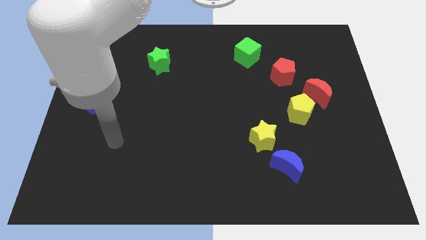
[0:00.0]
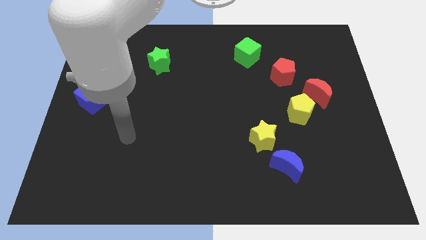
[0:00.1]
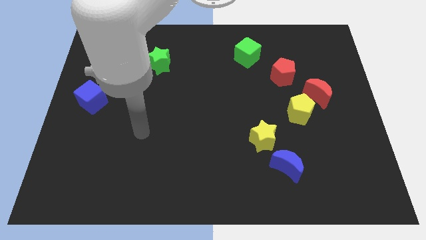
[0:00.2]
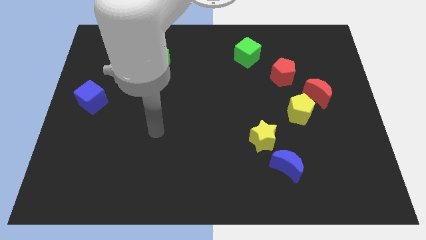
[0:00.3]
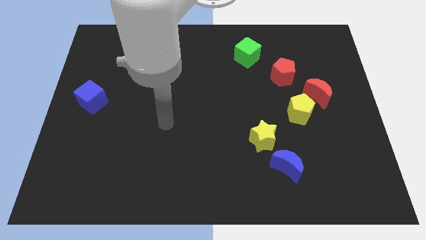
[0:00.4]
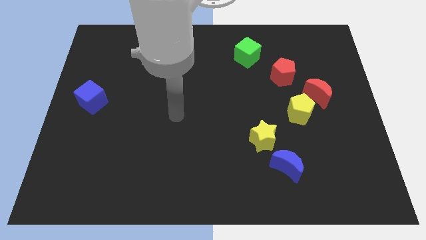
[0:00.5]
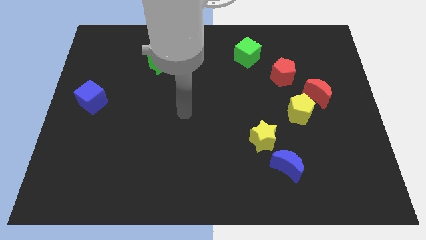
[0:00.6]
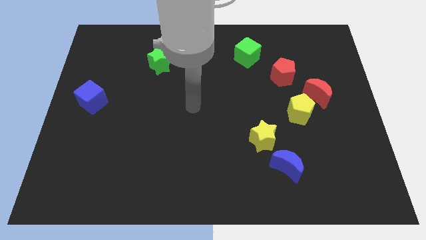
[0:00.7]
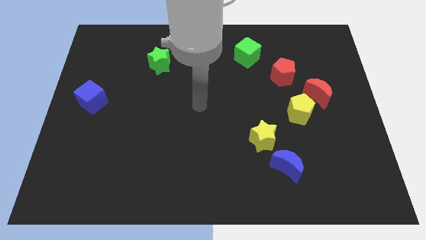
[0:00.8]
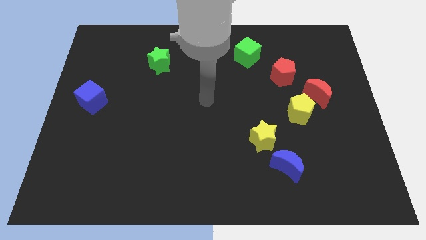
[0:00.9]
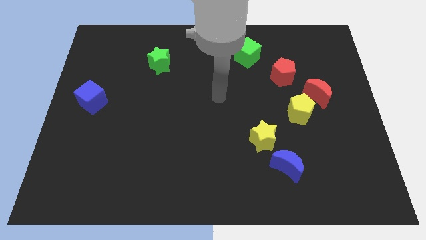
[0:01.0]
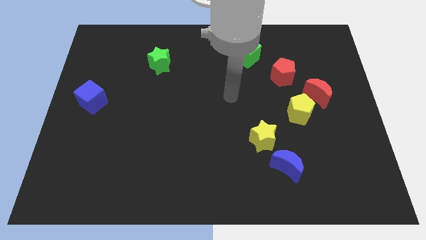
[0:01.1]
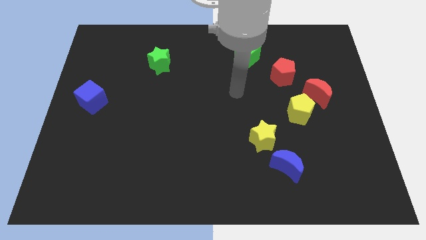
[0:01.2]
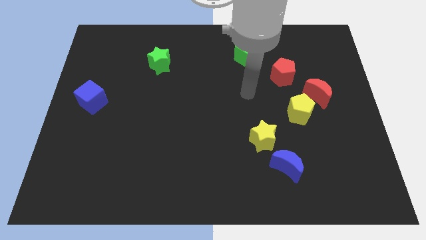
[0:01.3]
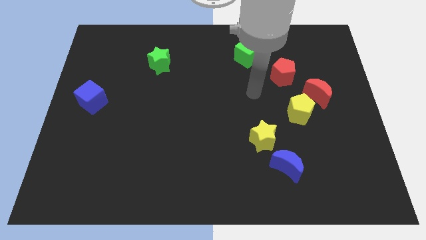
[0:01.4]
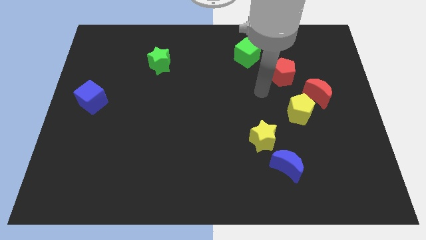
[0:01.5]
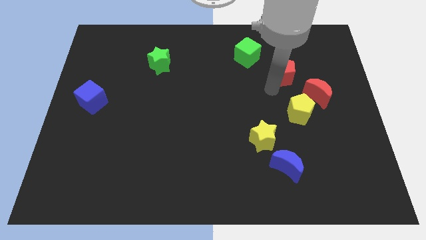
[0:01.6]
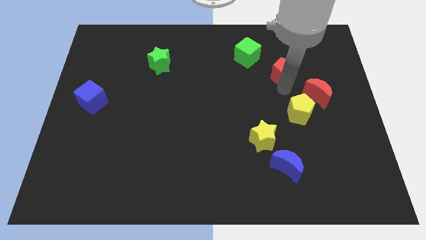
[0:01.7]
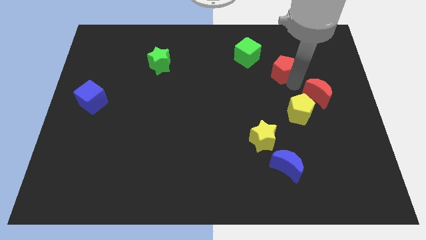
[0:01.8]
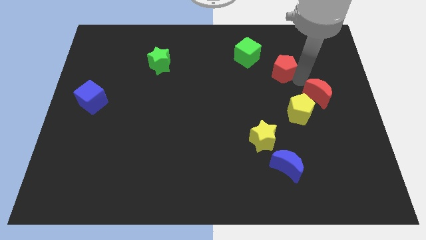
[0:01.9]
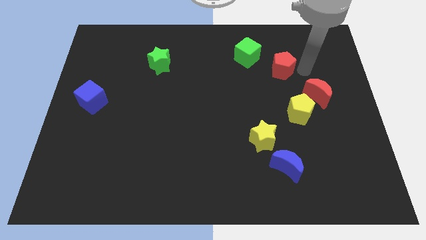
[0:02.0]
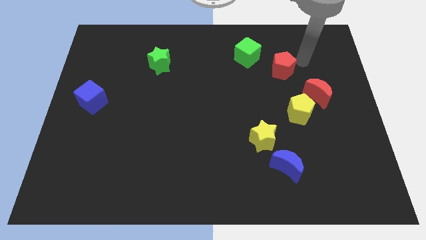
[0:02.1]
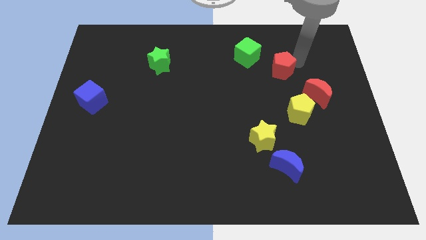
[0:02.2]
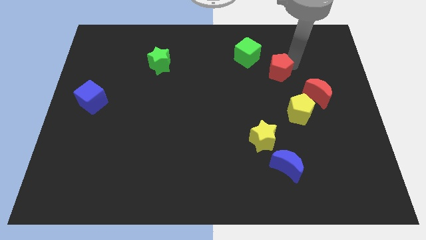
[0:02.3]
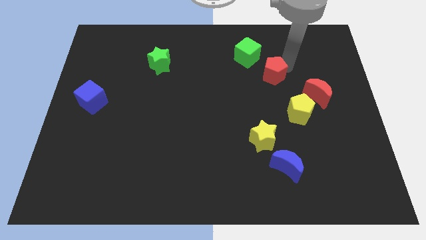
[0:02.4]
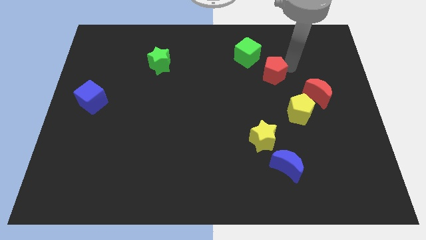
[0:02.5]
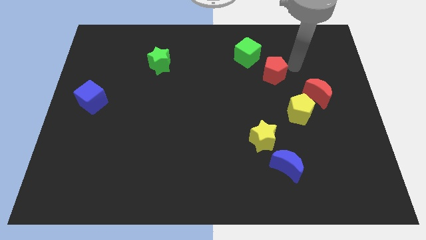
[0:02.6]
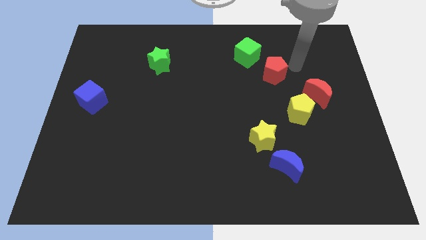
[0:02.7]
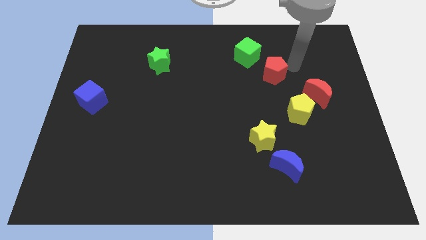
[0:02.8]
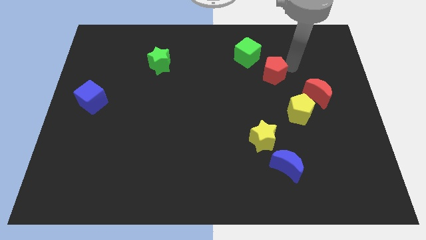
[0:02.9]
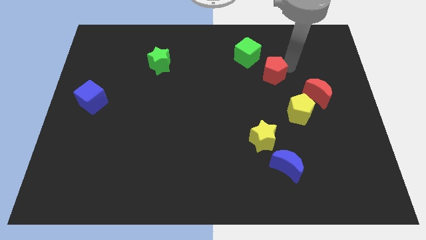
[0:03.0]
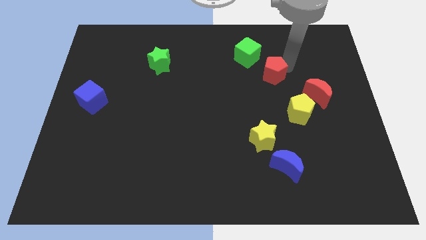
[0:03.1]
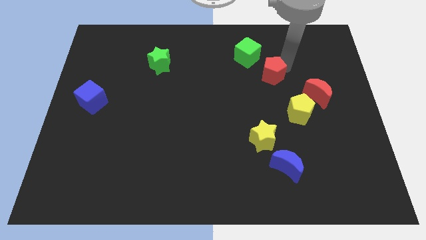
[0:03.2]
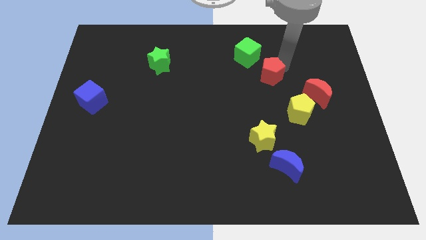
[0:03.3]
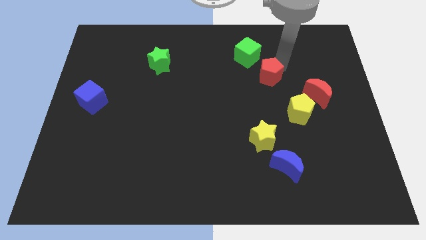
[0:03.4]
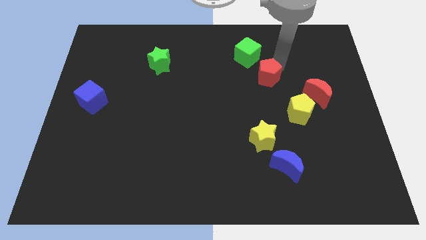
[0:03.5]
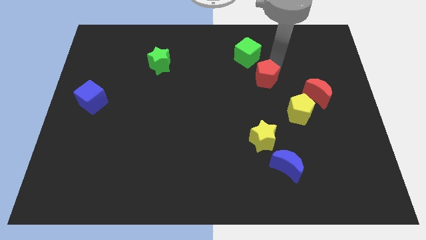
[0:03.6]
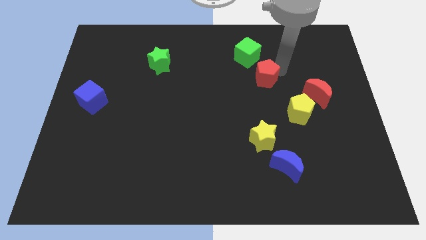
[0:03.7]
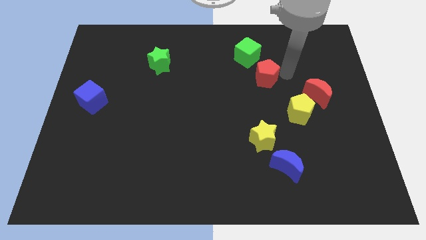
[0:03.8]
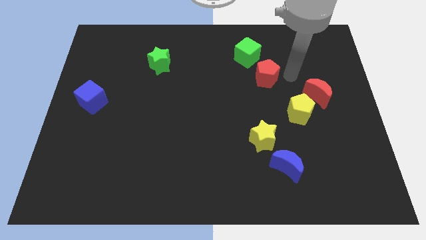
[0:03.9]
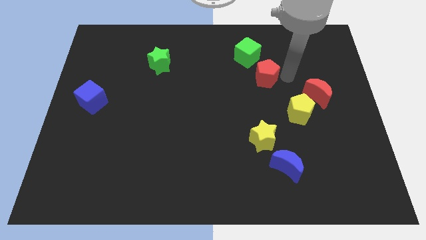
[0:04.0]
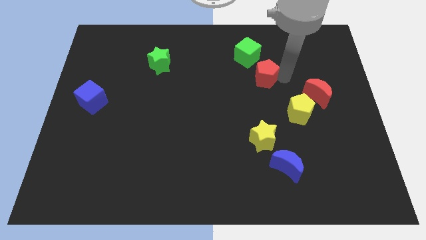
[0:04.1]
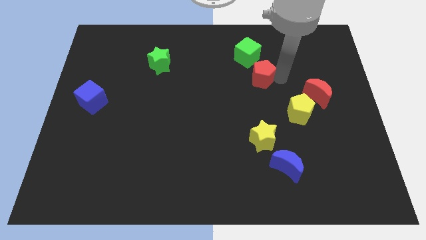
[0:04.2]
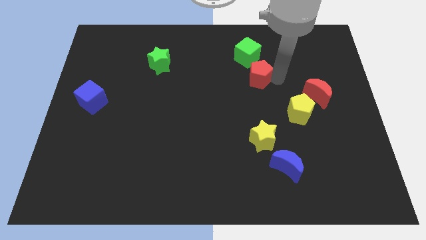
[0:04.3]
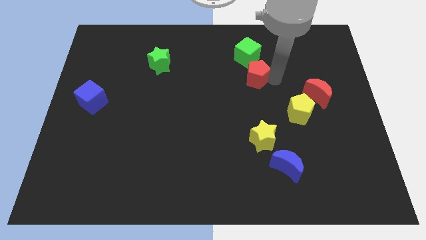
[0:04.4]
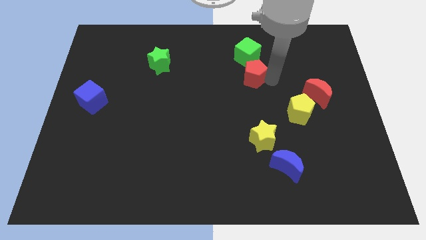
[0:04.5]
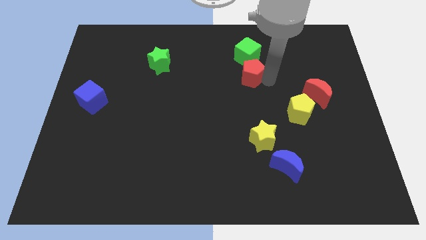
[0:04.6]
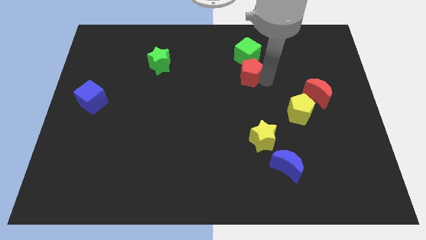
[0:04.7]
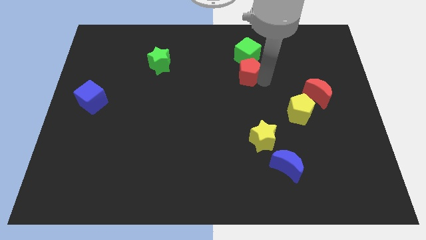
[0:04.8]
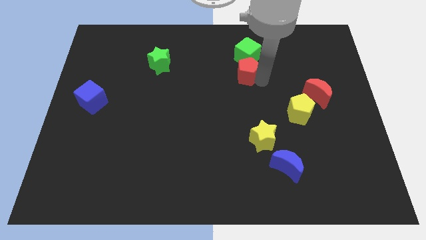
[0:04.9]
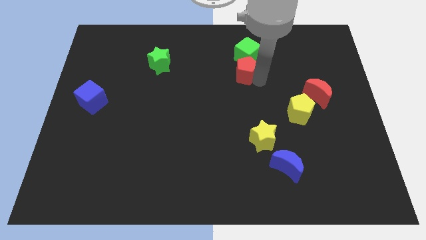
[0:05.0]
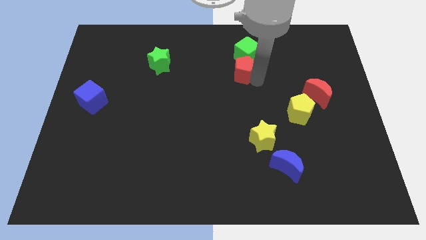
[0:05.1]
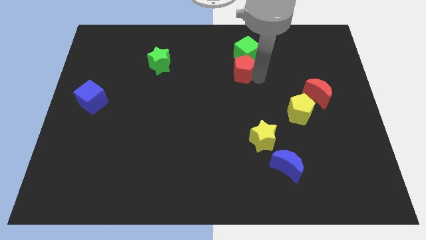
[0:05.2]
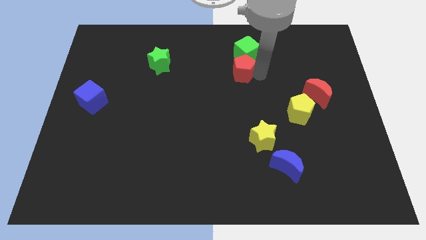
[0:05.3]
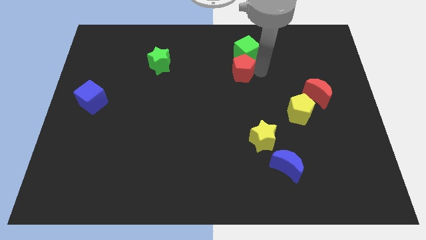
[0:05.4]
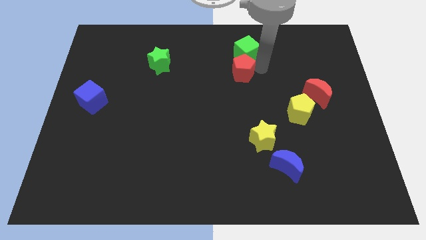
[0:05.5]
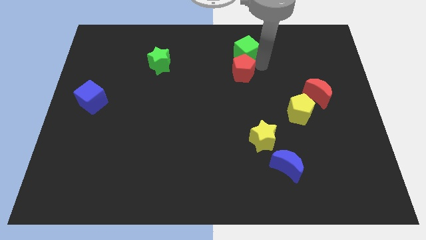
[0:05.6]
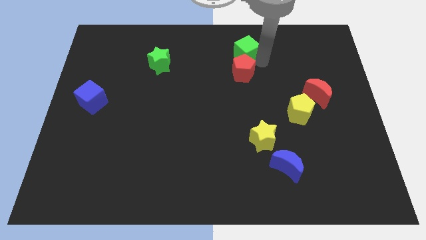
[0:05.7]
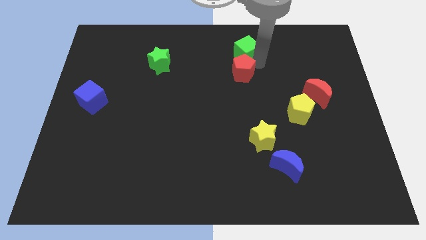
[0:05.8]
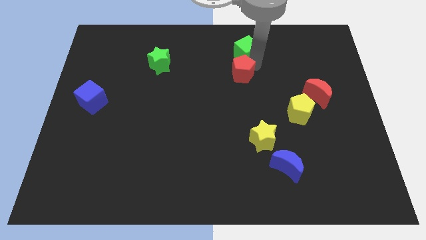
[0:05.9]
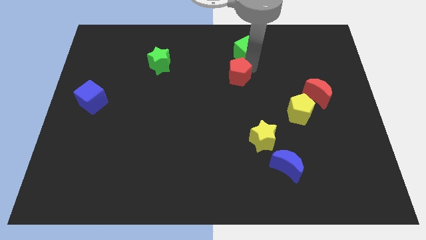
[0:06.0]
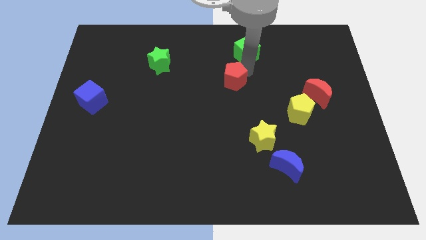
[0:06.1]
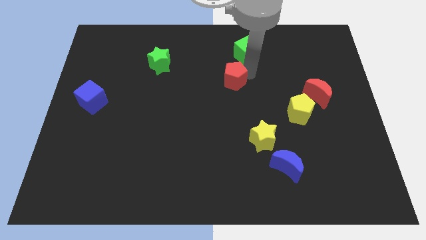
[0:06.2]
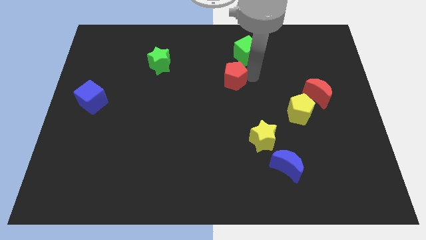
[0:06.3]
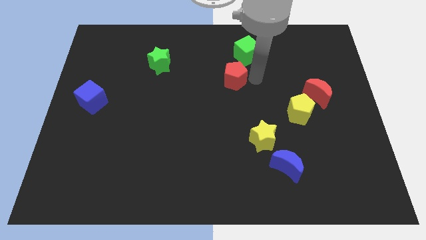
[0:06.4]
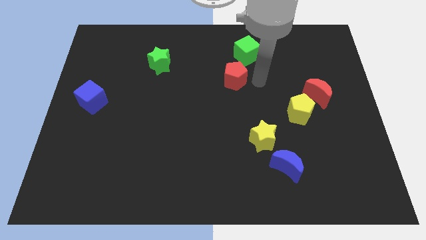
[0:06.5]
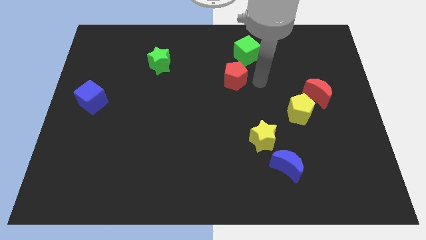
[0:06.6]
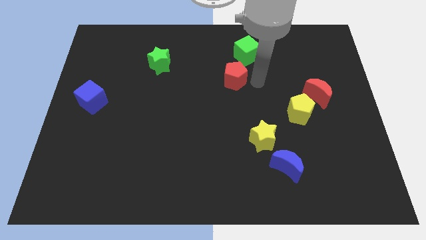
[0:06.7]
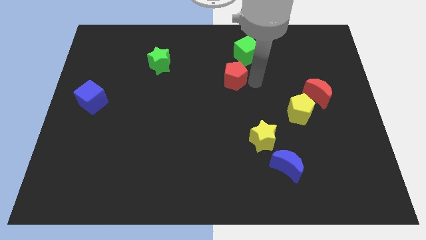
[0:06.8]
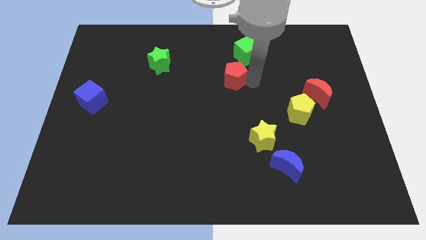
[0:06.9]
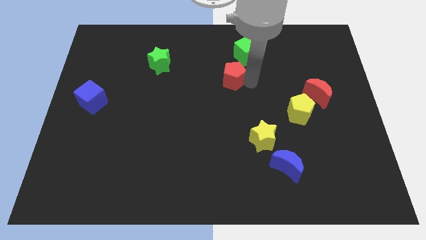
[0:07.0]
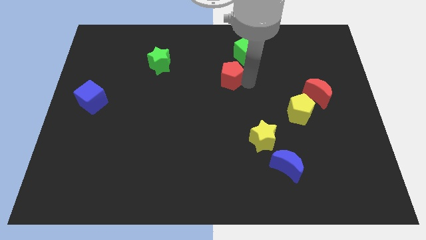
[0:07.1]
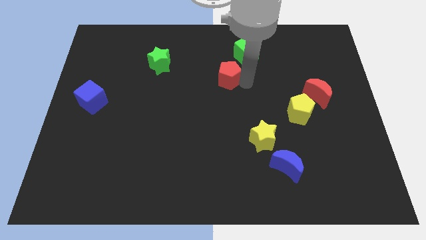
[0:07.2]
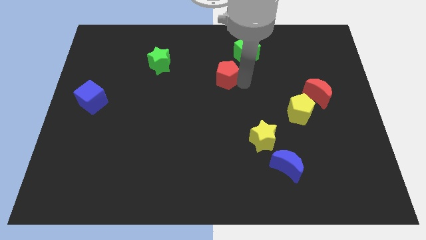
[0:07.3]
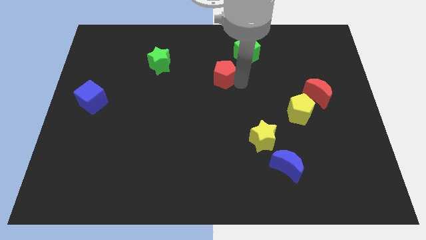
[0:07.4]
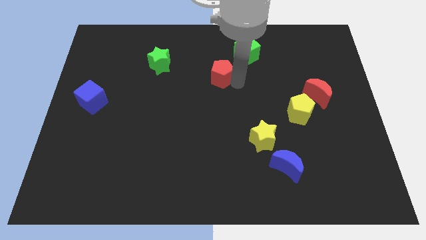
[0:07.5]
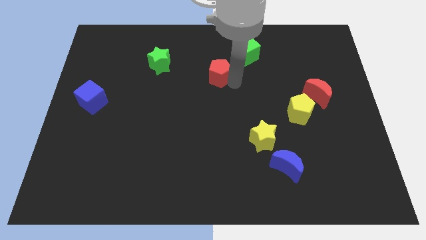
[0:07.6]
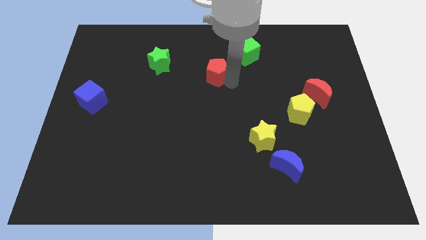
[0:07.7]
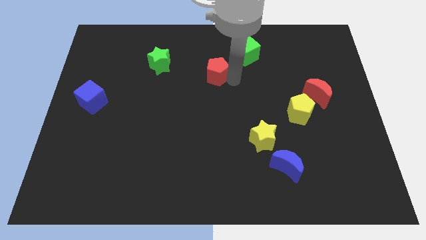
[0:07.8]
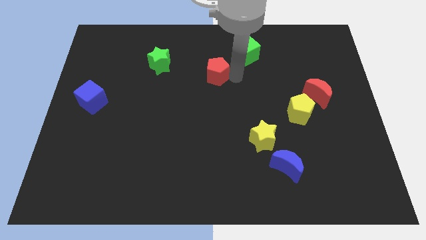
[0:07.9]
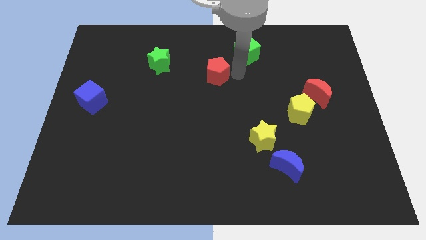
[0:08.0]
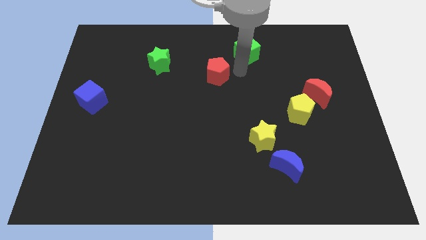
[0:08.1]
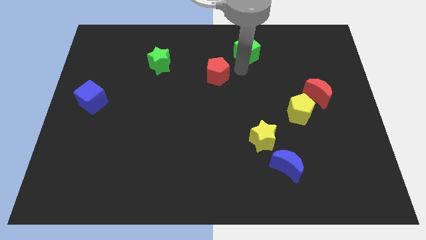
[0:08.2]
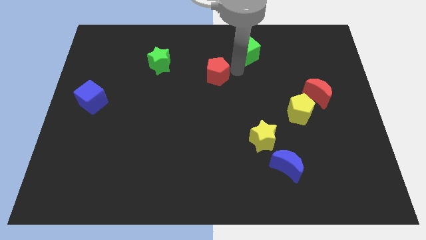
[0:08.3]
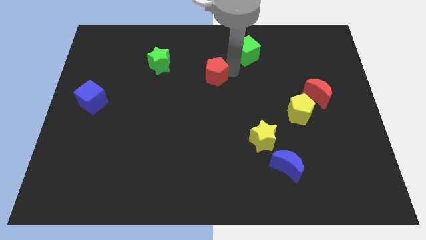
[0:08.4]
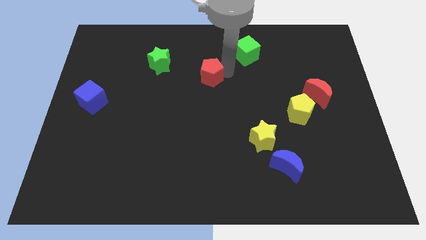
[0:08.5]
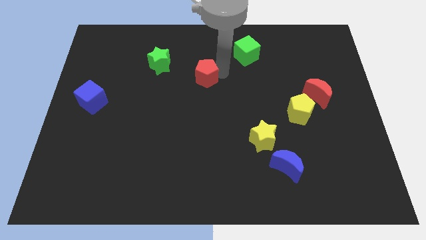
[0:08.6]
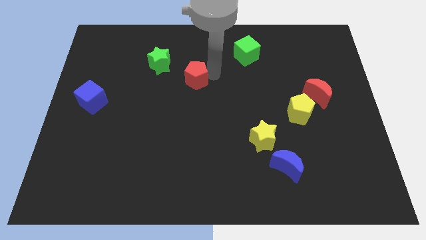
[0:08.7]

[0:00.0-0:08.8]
push the red pentagon left
